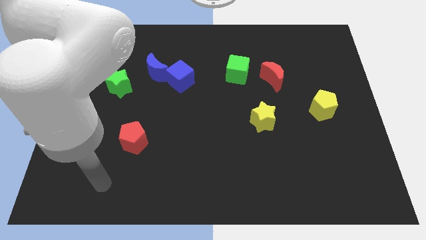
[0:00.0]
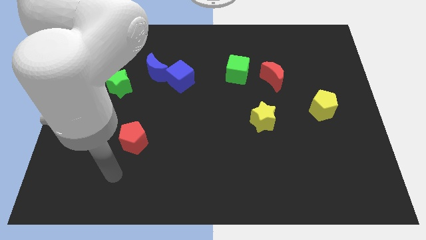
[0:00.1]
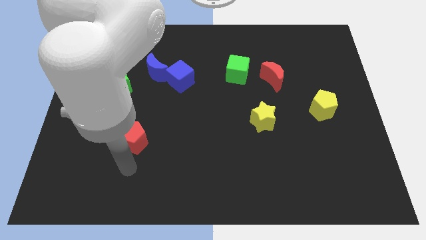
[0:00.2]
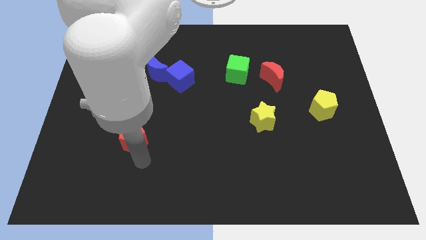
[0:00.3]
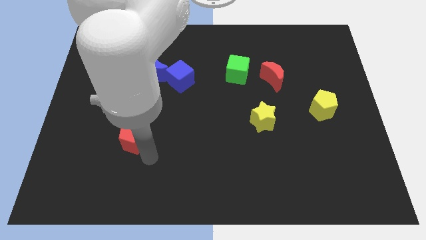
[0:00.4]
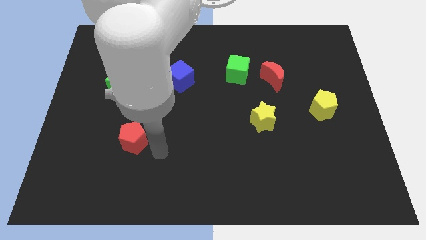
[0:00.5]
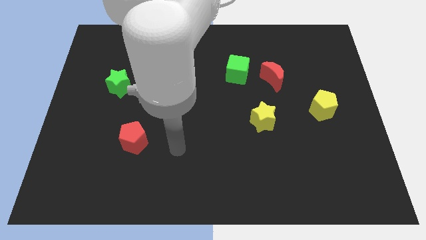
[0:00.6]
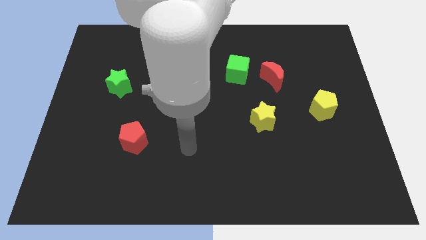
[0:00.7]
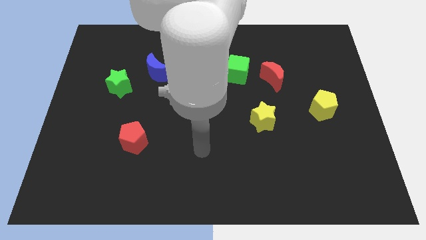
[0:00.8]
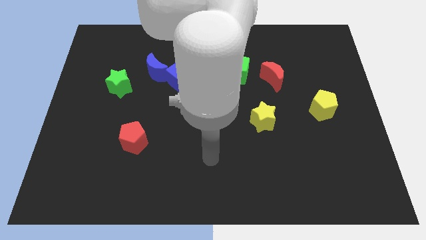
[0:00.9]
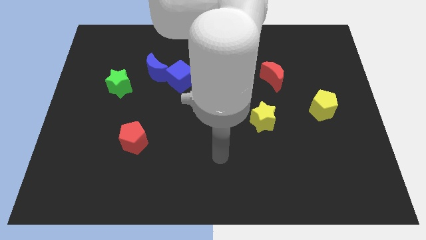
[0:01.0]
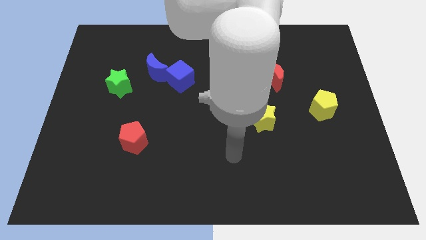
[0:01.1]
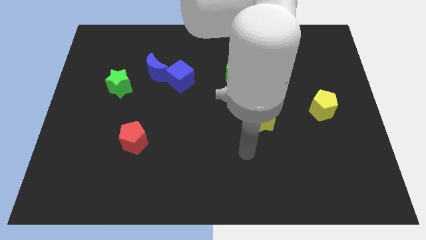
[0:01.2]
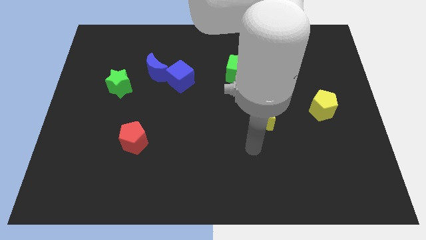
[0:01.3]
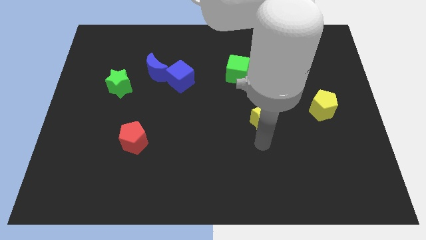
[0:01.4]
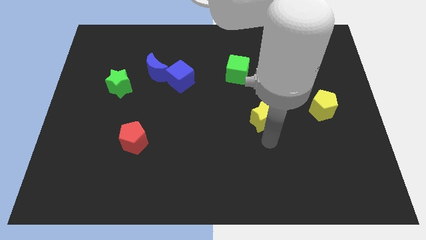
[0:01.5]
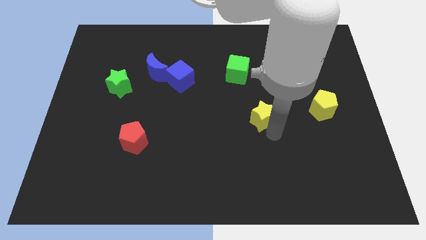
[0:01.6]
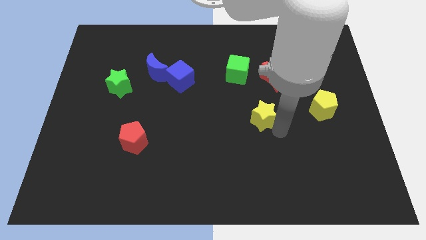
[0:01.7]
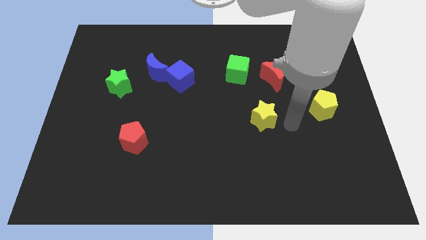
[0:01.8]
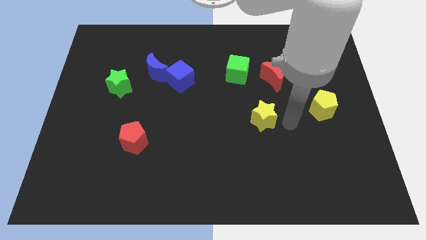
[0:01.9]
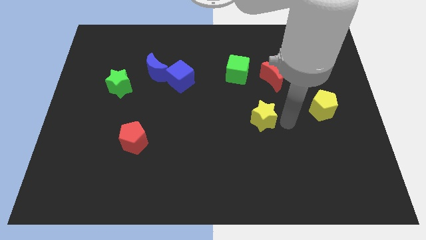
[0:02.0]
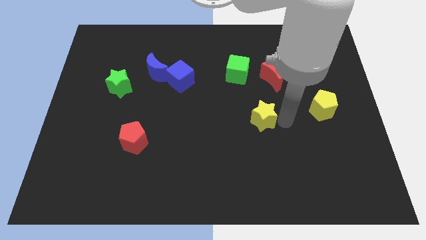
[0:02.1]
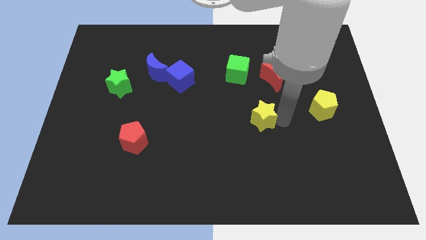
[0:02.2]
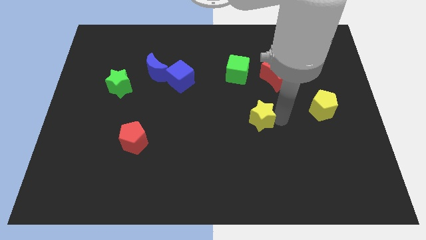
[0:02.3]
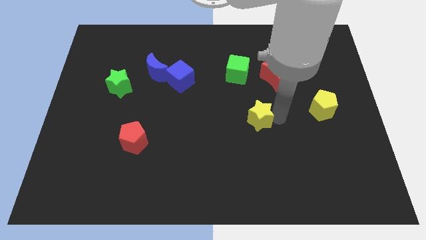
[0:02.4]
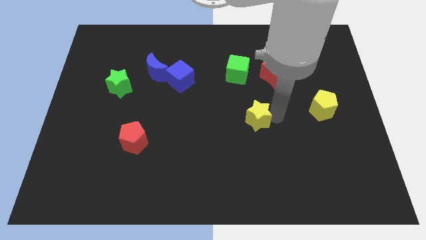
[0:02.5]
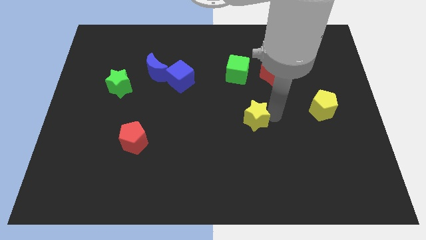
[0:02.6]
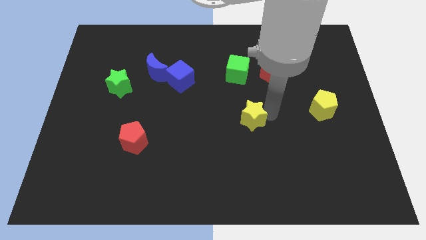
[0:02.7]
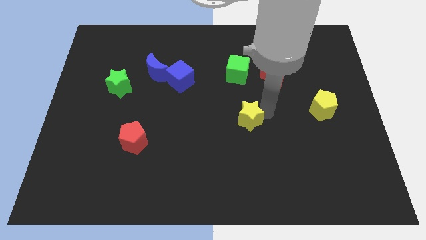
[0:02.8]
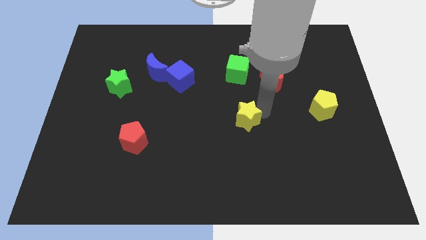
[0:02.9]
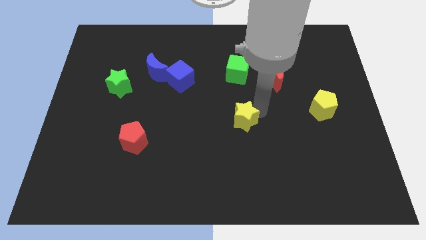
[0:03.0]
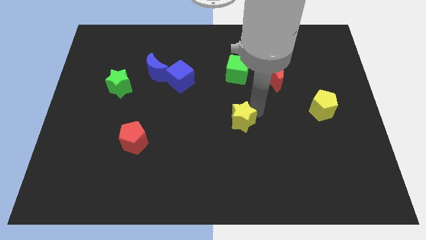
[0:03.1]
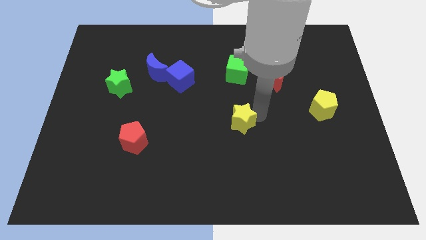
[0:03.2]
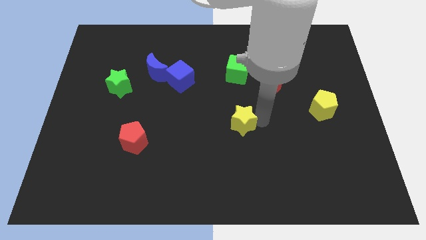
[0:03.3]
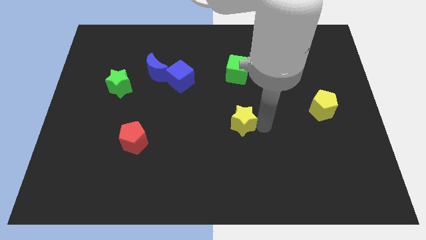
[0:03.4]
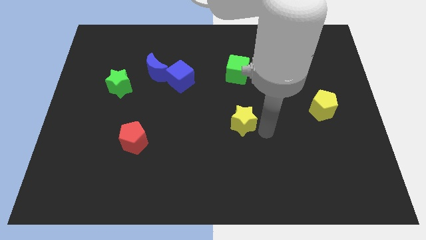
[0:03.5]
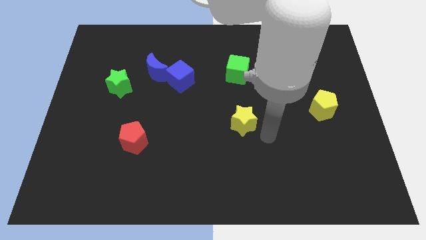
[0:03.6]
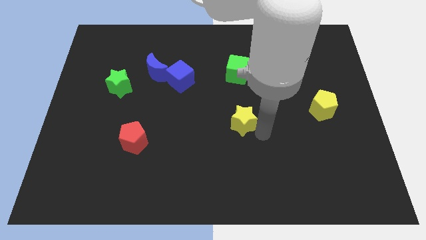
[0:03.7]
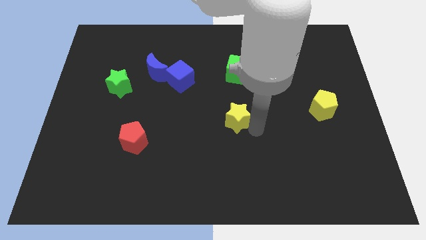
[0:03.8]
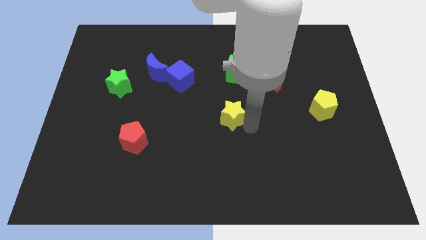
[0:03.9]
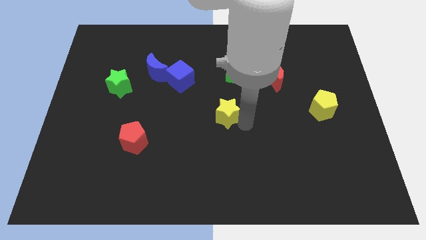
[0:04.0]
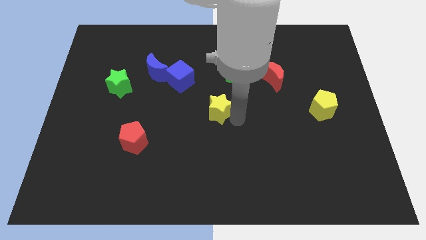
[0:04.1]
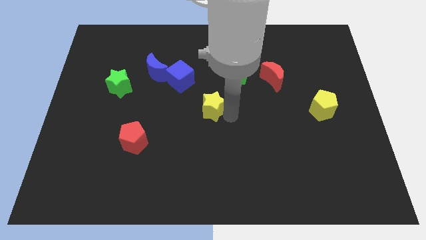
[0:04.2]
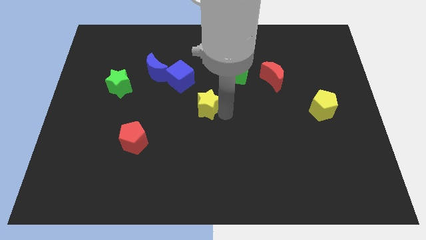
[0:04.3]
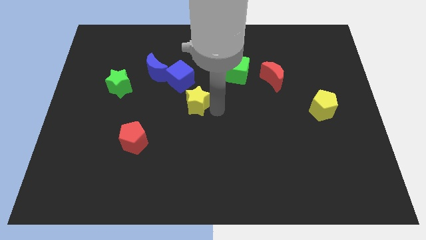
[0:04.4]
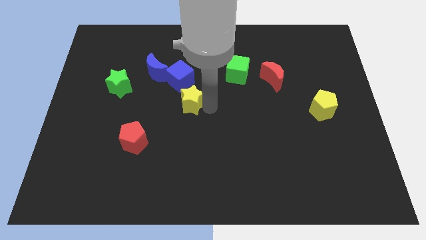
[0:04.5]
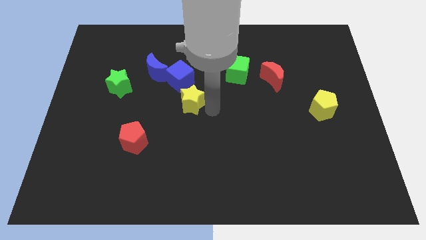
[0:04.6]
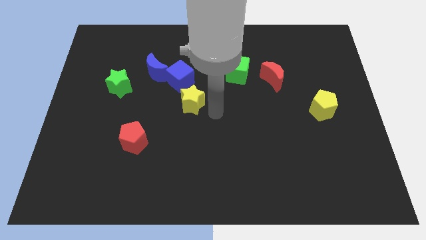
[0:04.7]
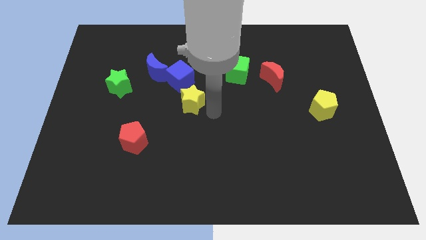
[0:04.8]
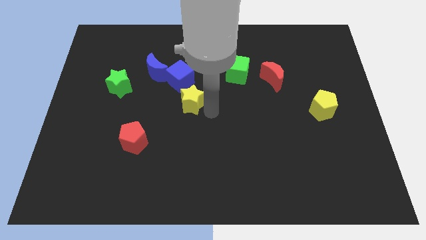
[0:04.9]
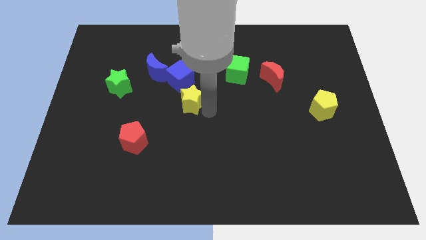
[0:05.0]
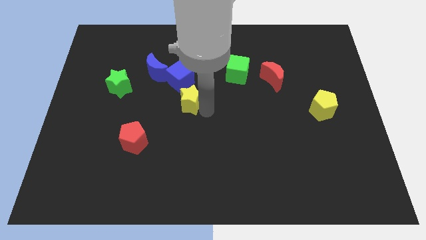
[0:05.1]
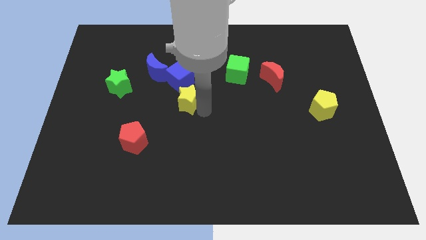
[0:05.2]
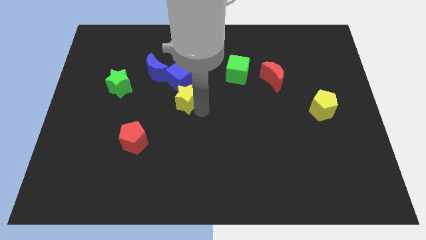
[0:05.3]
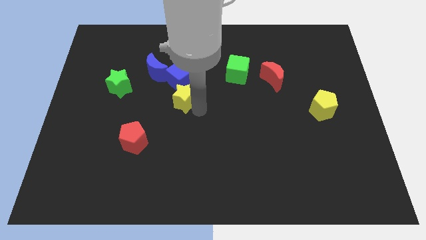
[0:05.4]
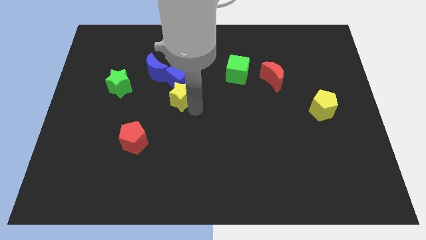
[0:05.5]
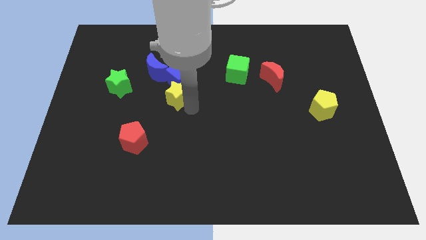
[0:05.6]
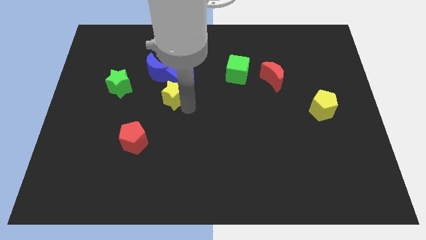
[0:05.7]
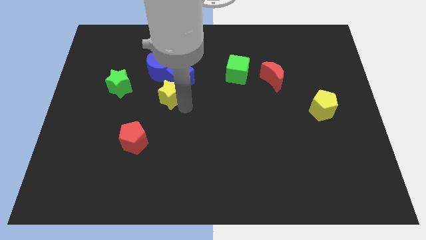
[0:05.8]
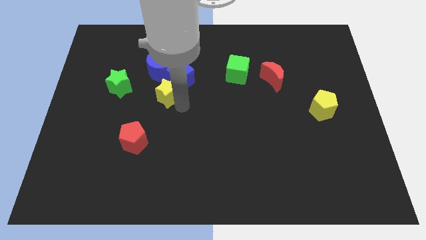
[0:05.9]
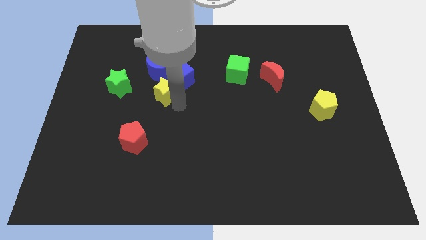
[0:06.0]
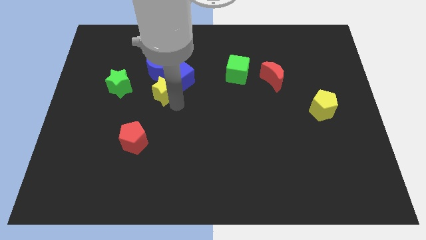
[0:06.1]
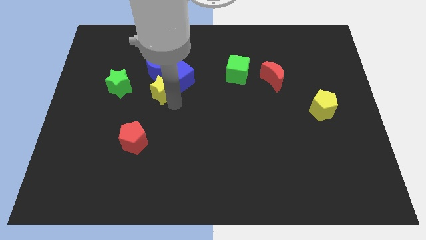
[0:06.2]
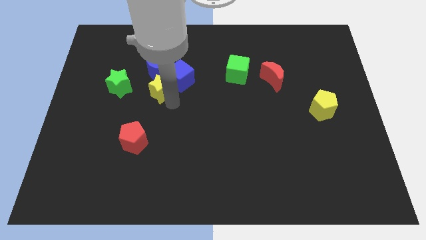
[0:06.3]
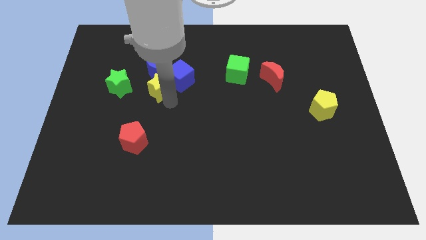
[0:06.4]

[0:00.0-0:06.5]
push the yellow star towards the blue moon

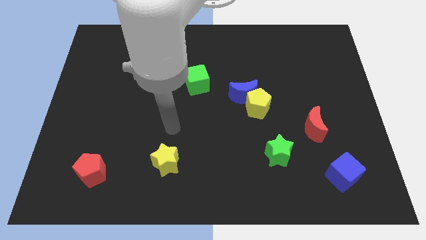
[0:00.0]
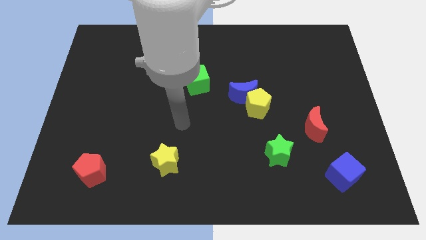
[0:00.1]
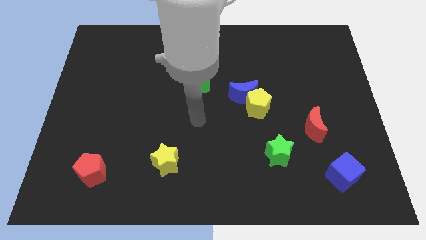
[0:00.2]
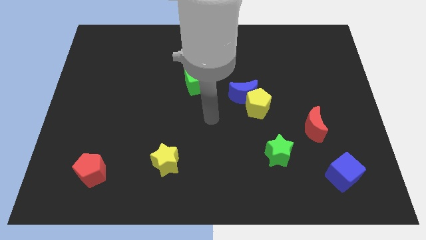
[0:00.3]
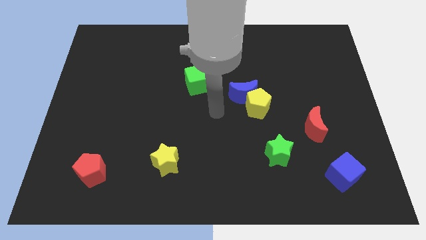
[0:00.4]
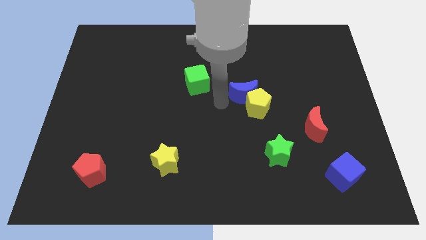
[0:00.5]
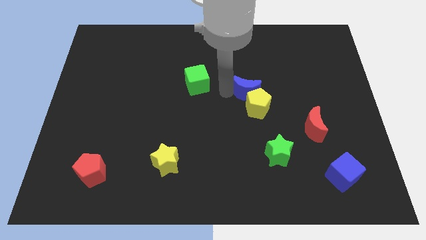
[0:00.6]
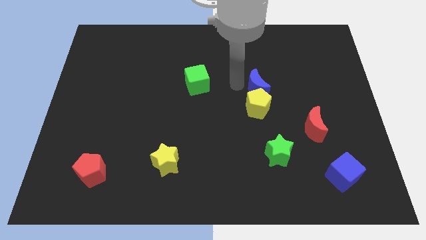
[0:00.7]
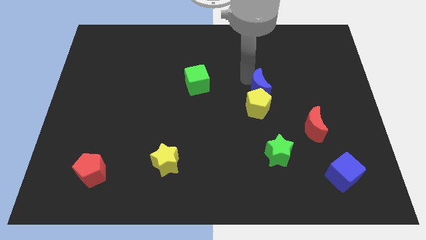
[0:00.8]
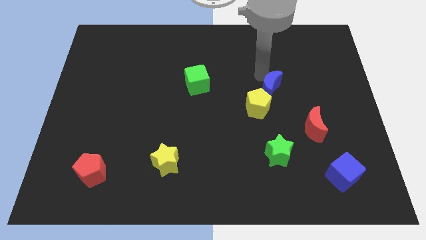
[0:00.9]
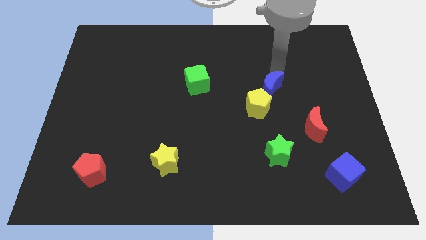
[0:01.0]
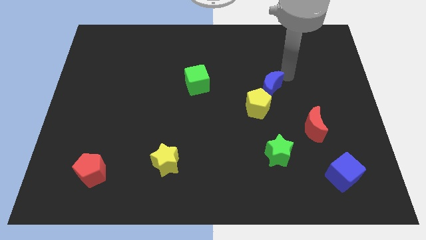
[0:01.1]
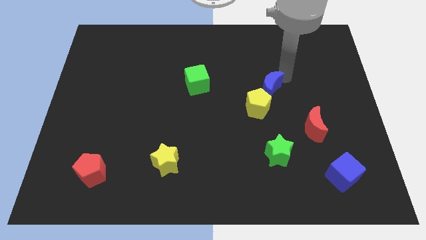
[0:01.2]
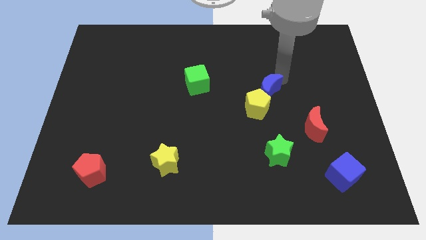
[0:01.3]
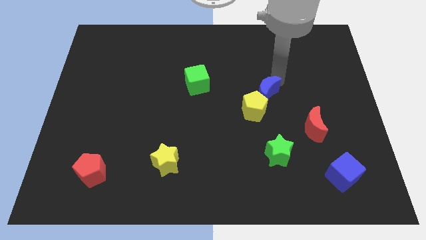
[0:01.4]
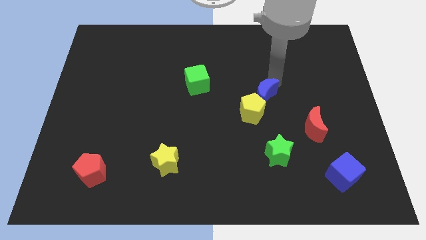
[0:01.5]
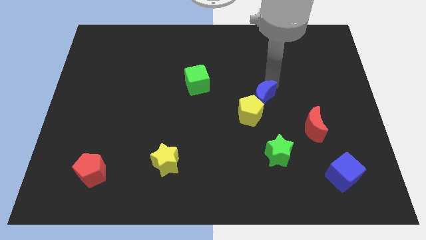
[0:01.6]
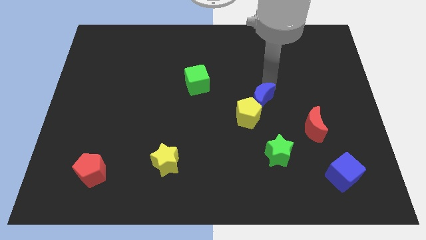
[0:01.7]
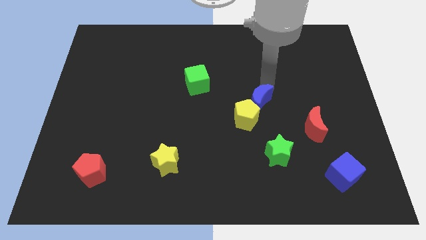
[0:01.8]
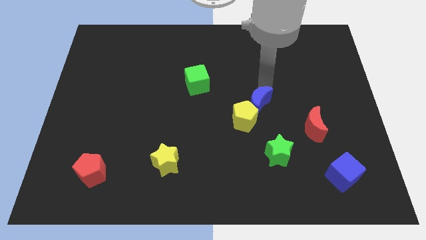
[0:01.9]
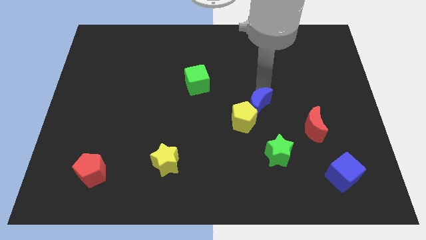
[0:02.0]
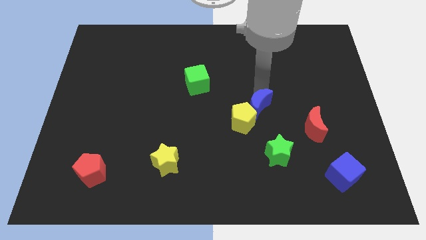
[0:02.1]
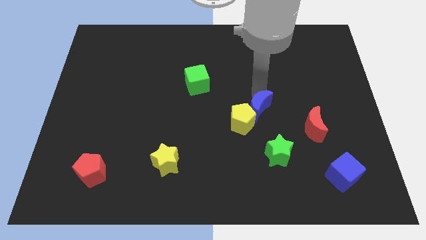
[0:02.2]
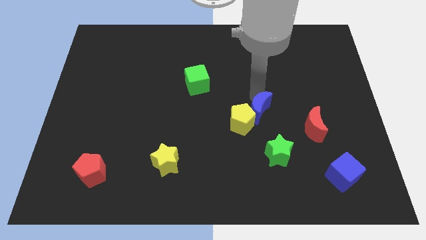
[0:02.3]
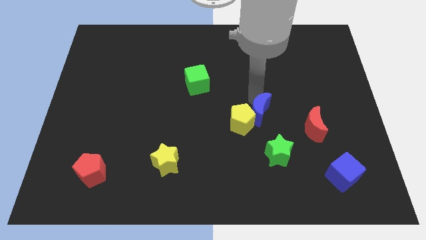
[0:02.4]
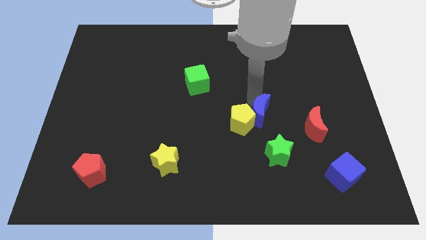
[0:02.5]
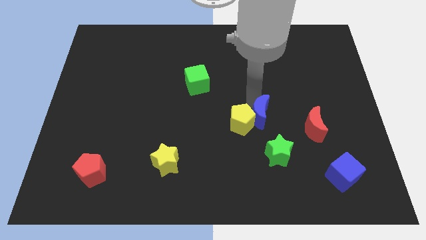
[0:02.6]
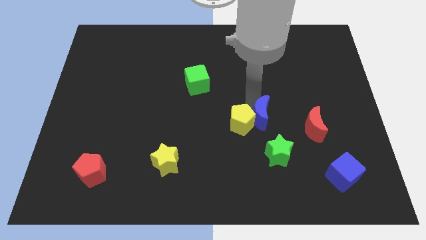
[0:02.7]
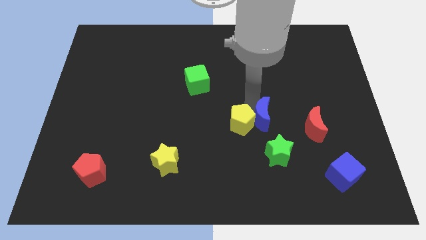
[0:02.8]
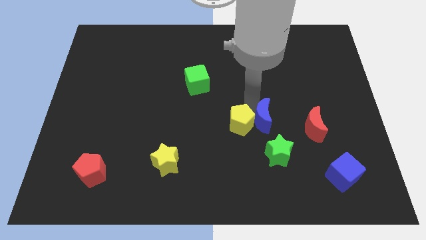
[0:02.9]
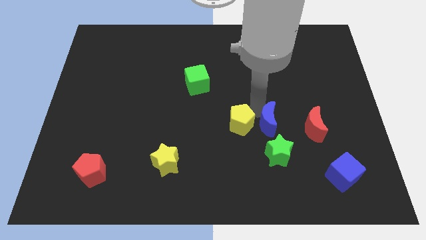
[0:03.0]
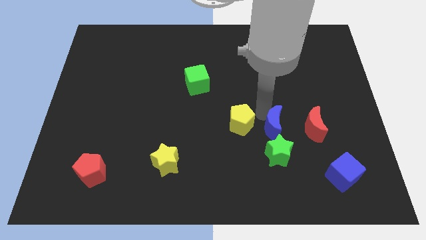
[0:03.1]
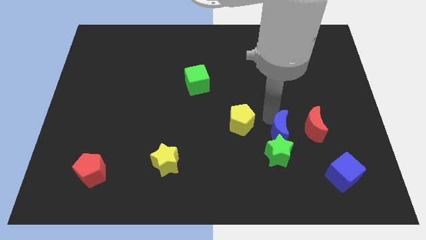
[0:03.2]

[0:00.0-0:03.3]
move the blue moon close to the green star
